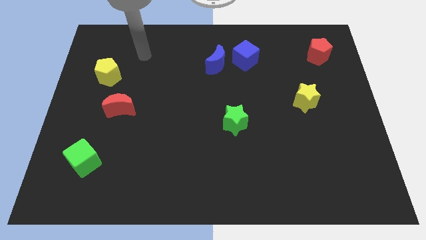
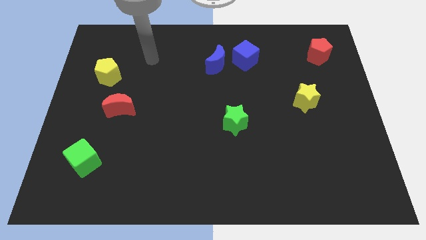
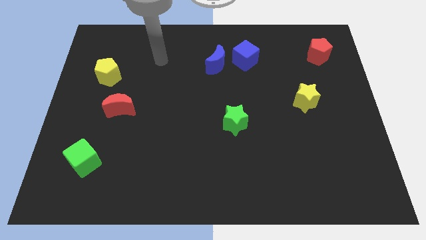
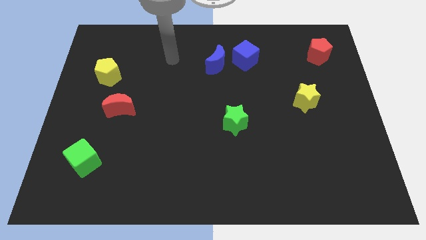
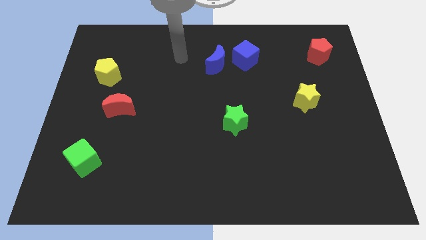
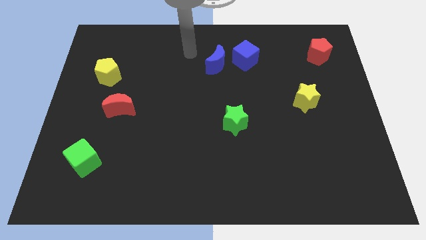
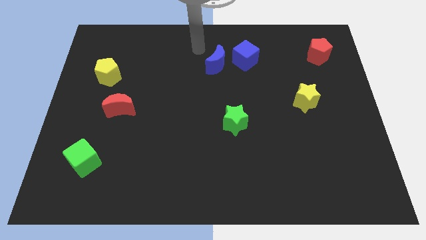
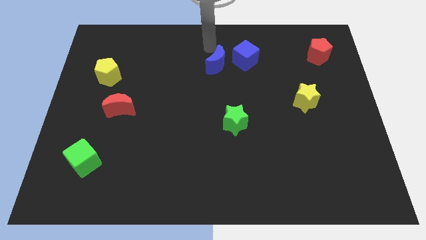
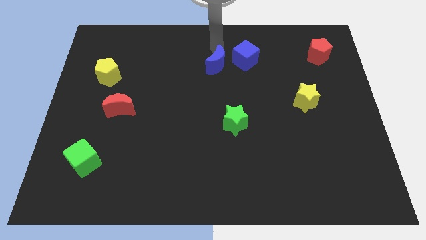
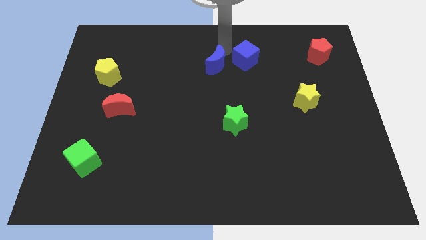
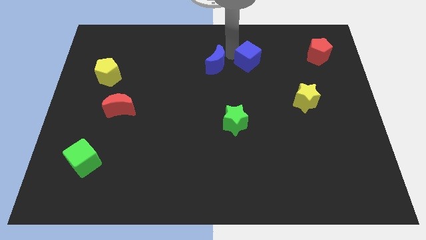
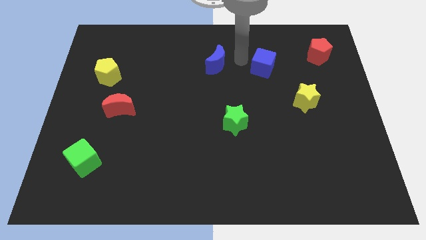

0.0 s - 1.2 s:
separate the blue moon from the blue cube

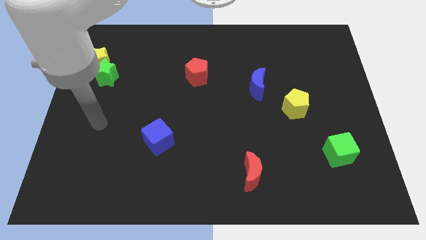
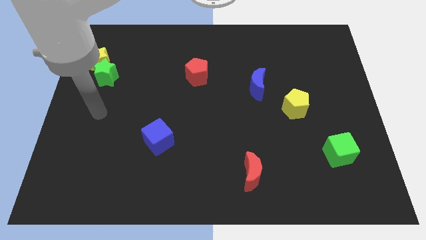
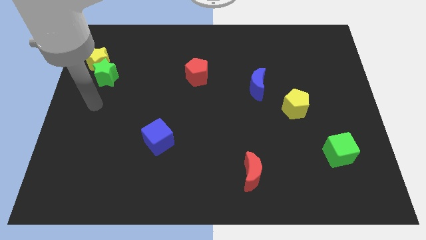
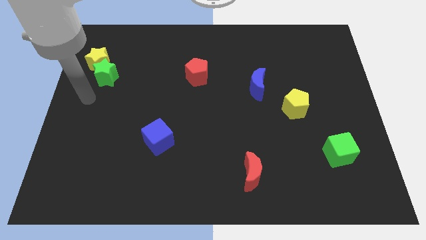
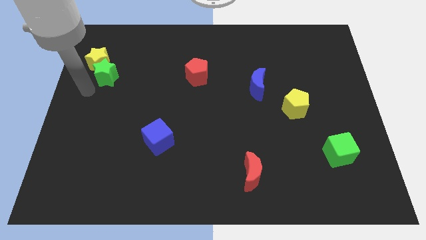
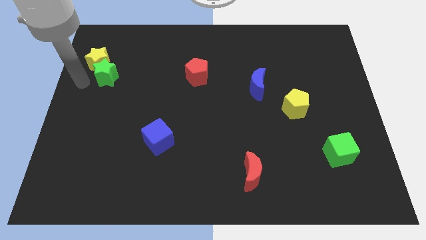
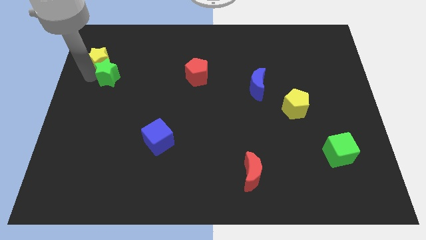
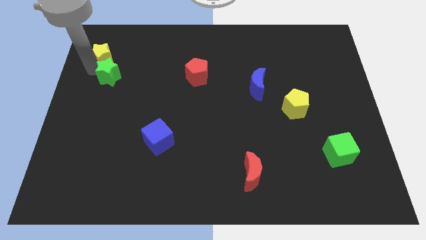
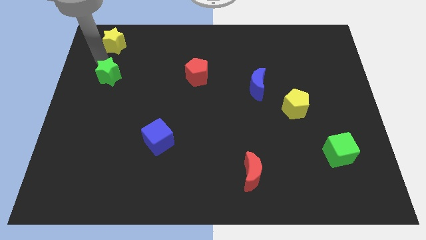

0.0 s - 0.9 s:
separate the green star from the yellow star

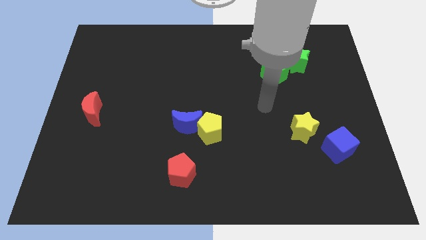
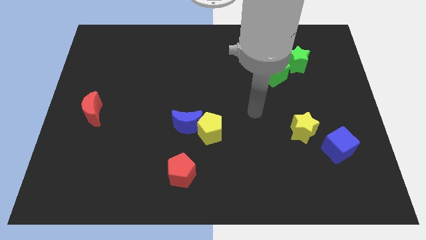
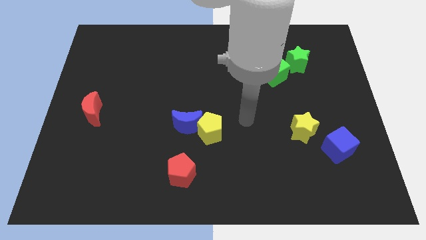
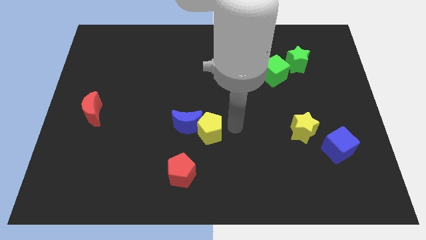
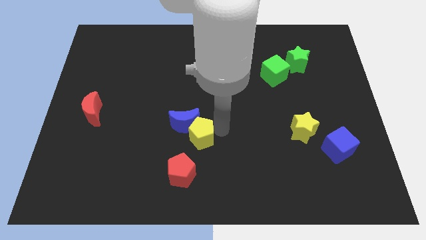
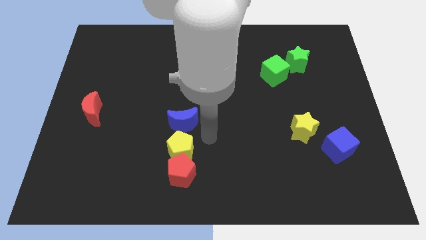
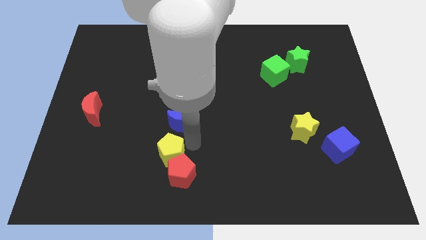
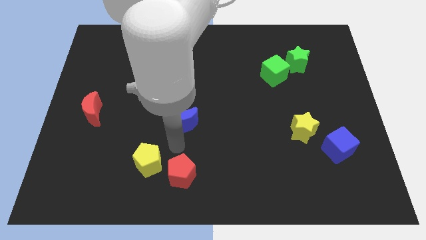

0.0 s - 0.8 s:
move the blue moon away from the yellow pentagon

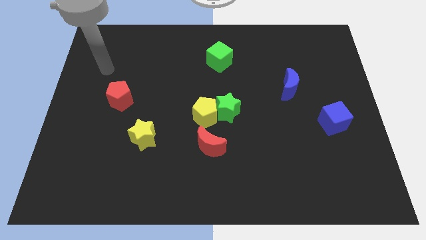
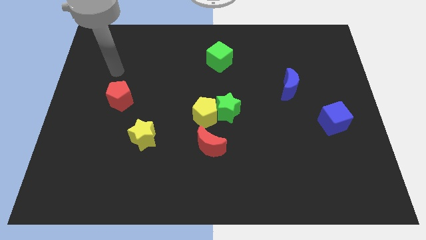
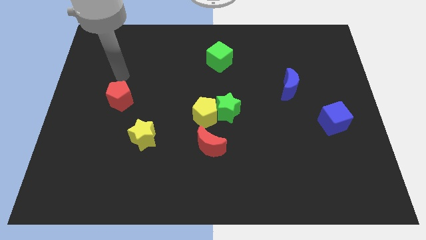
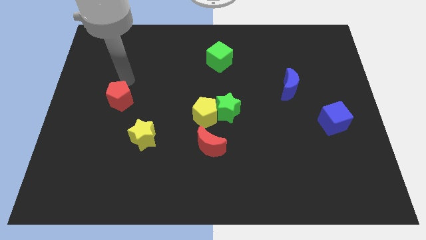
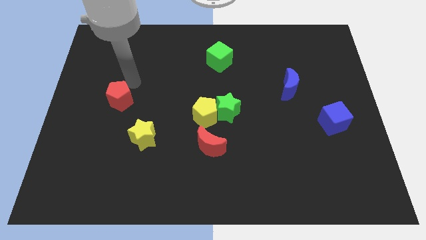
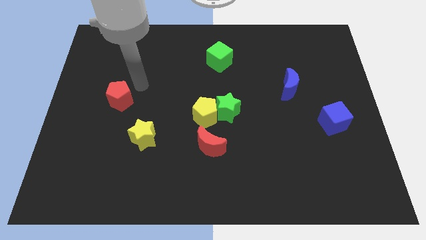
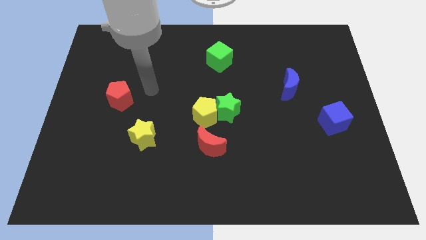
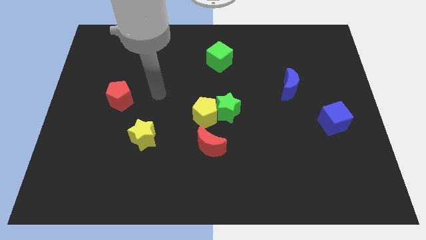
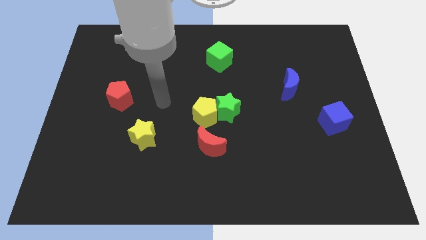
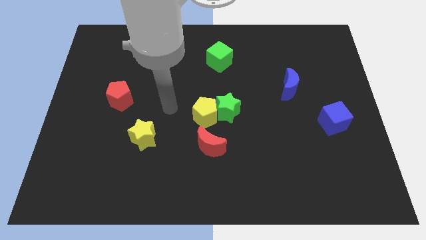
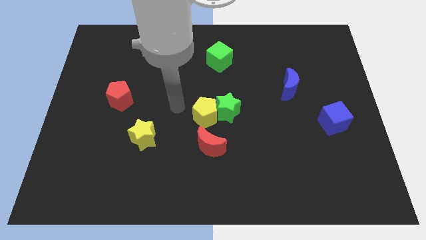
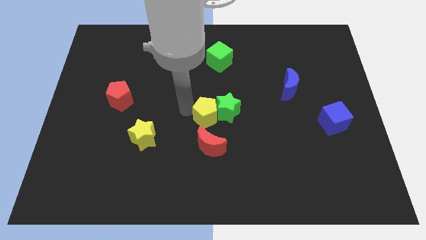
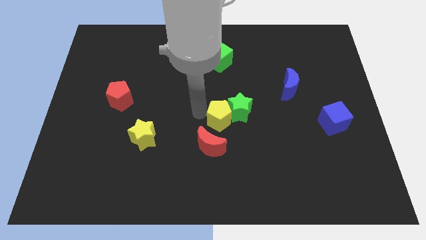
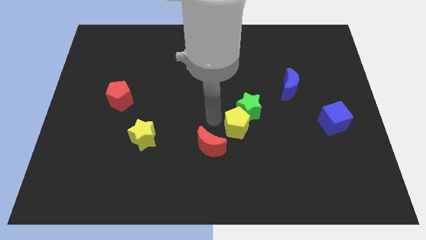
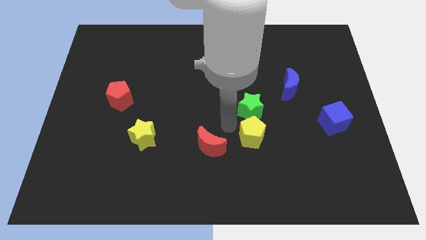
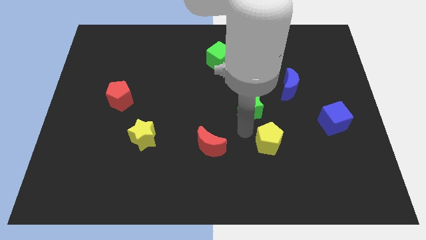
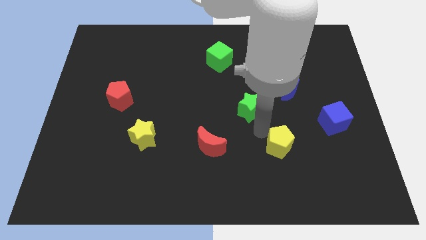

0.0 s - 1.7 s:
pull the green star apart from the yellow pentagon

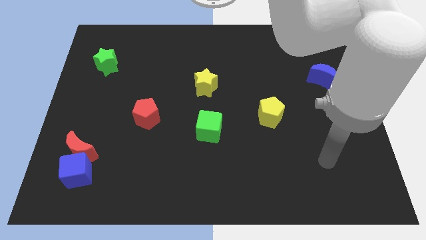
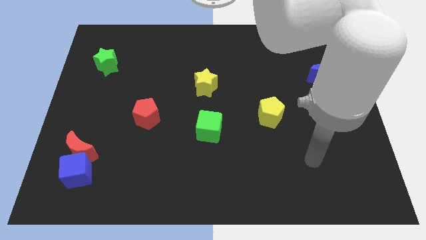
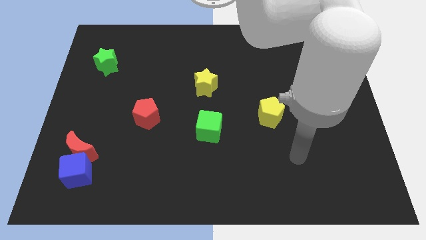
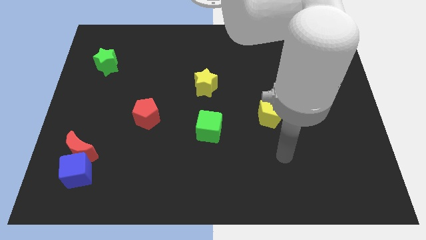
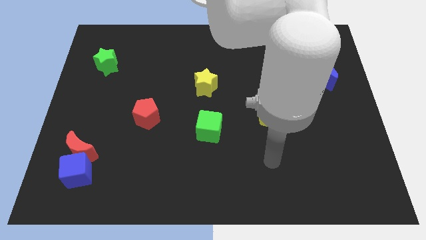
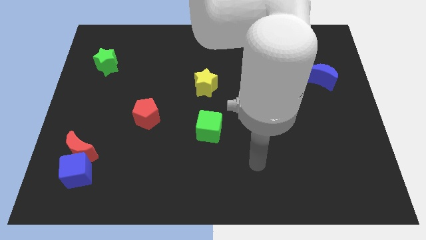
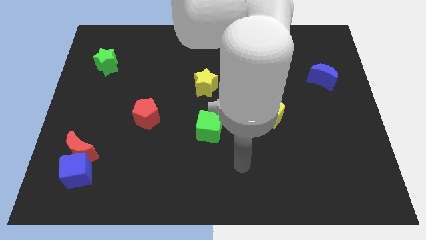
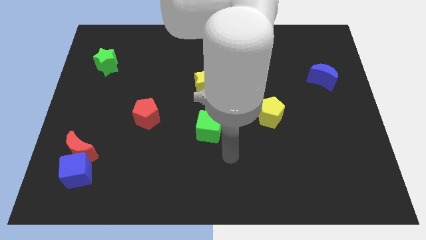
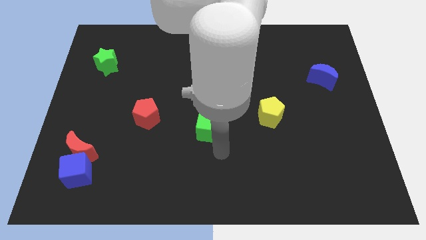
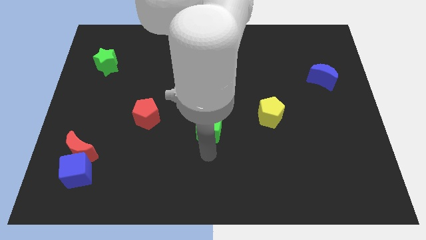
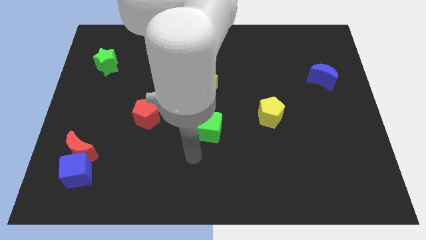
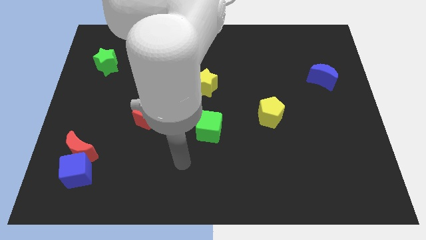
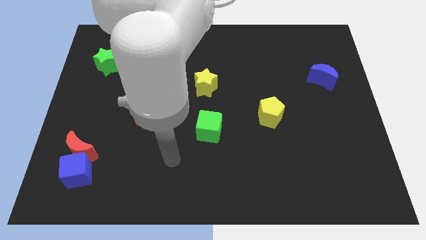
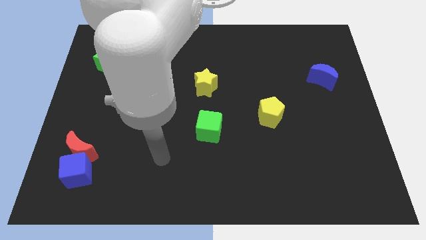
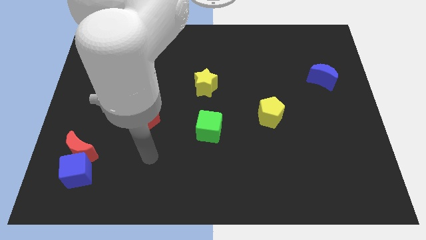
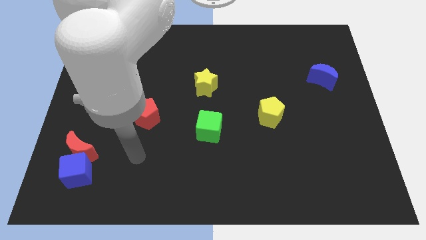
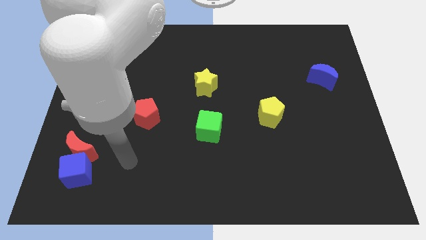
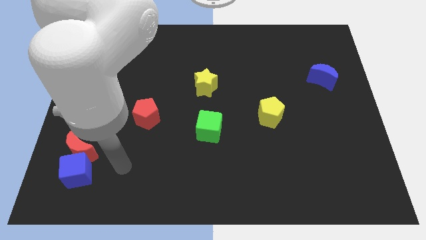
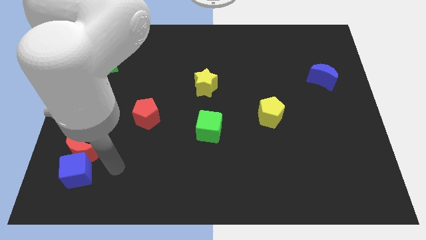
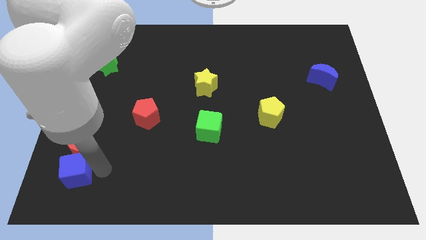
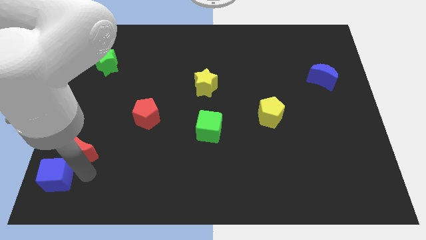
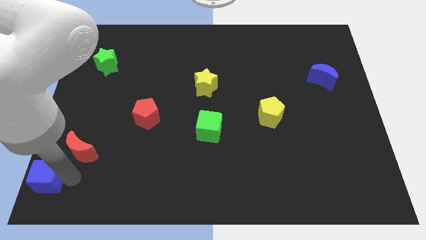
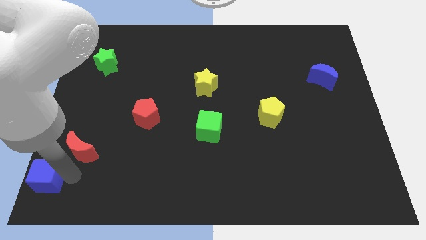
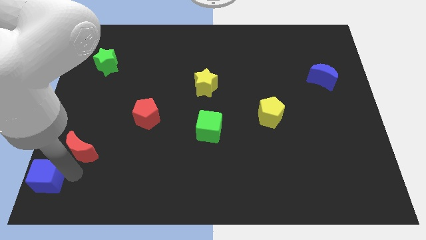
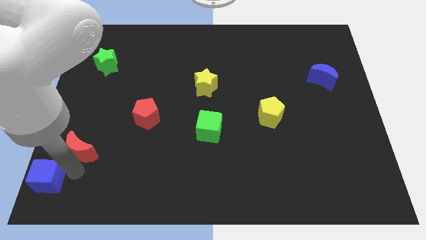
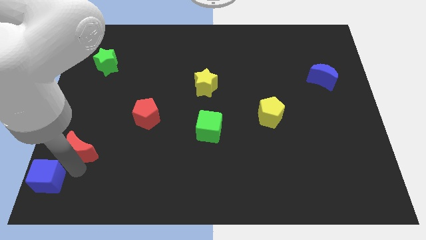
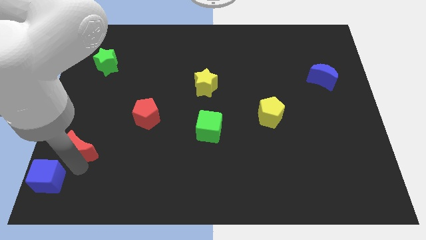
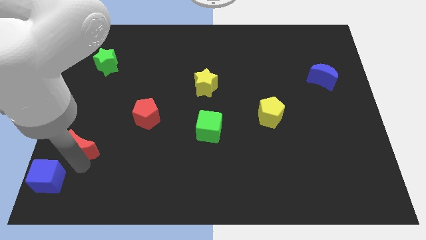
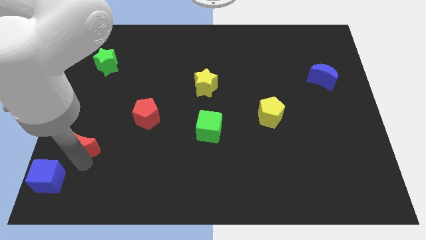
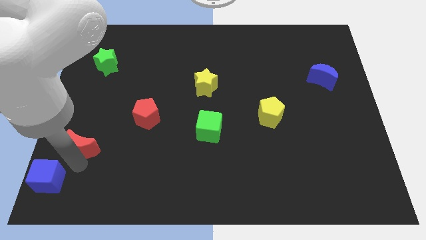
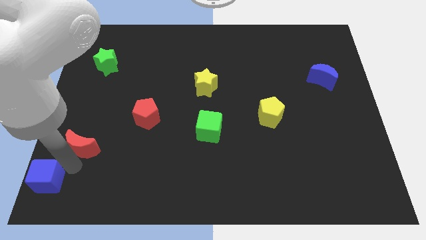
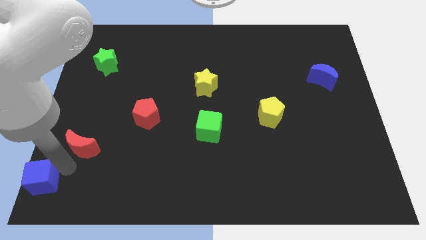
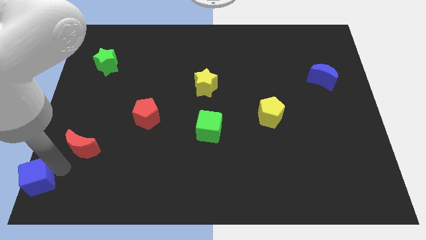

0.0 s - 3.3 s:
pull the red moon apart from the blue cube

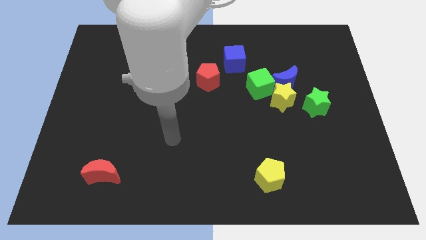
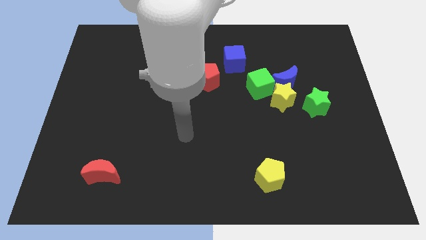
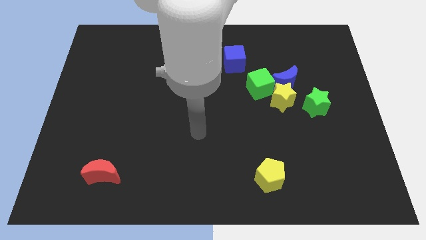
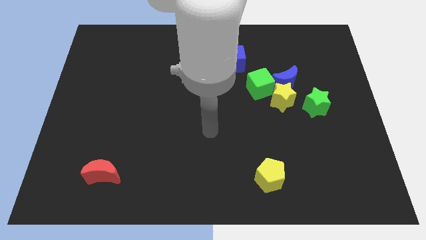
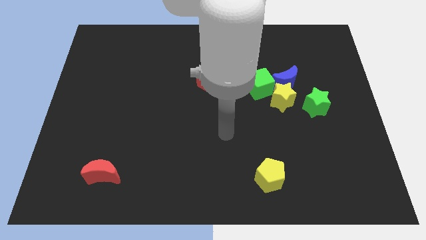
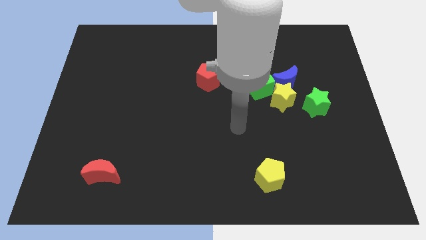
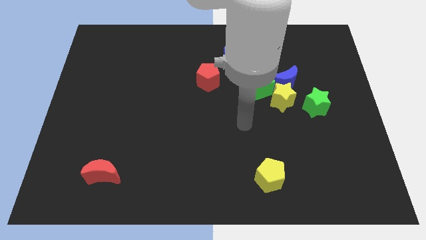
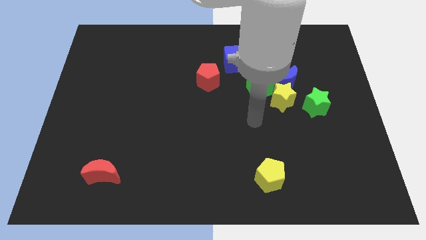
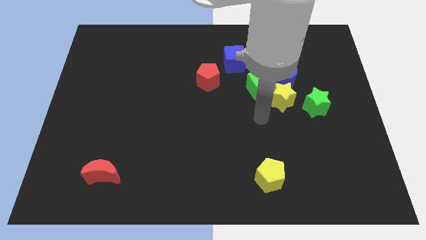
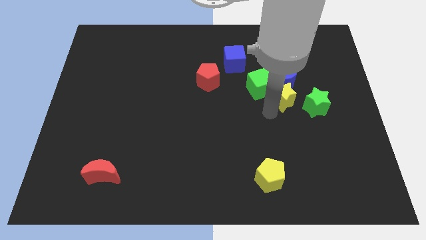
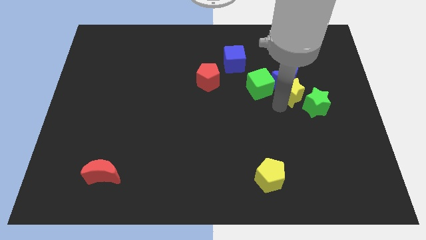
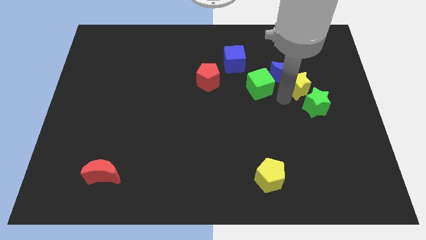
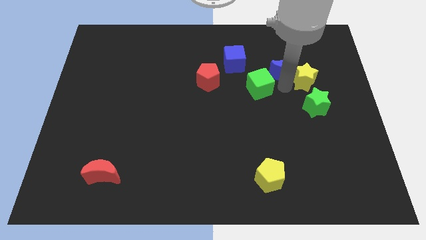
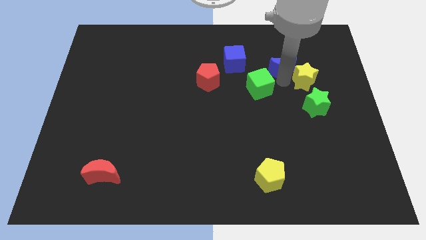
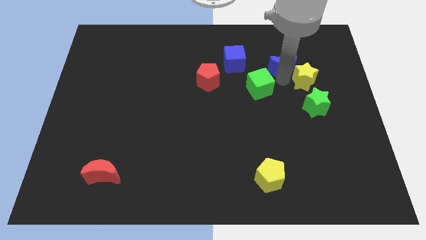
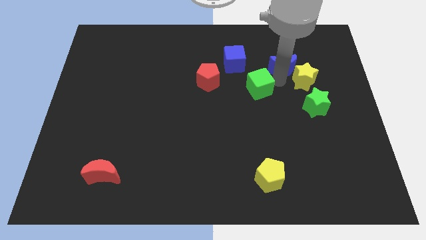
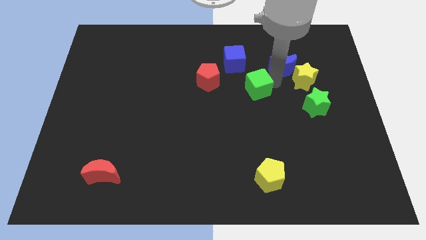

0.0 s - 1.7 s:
move the green cube away from the blue moon and yellow star
